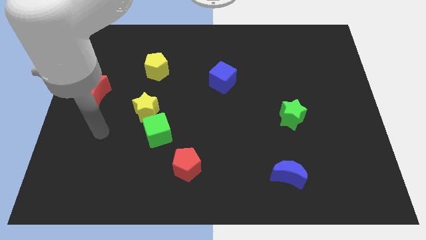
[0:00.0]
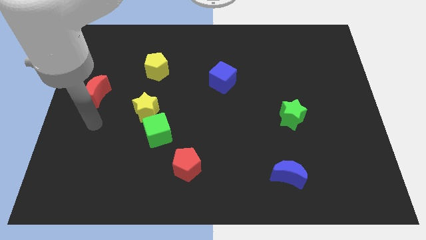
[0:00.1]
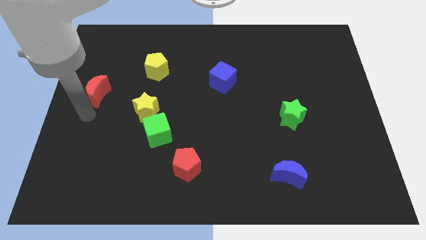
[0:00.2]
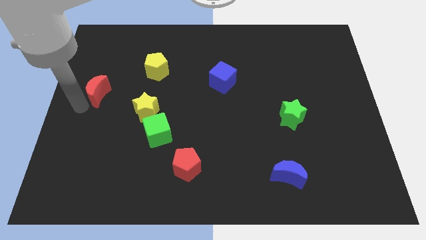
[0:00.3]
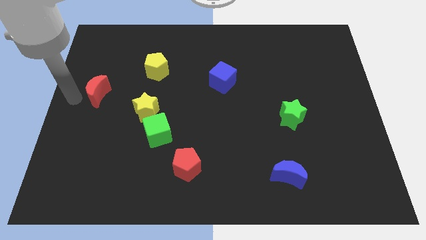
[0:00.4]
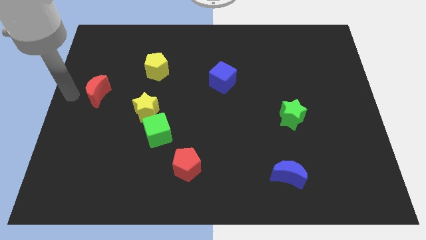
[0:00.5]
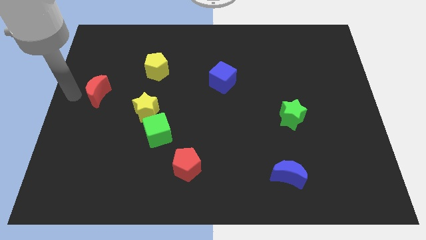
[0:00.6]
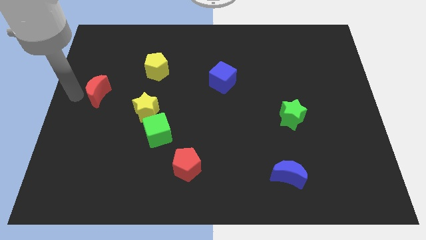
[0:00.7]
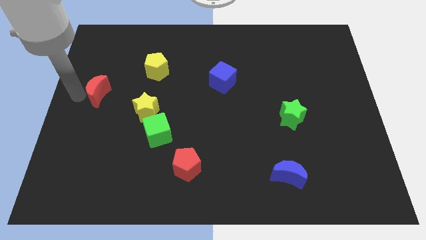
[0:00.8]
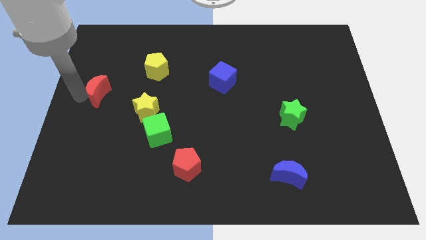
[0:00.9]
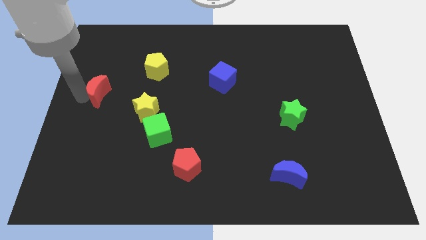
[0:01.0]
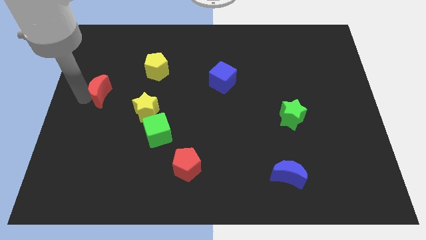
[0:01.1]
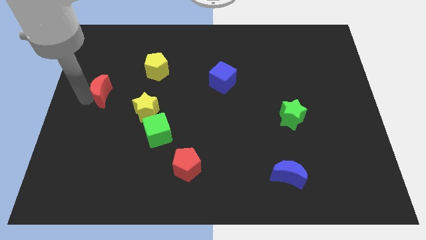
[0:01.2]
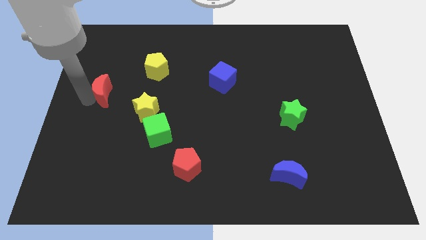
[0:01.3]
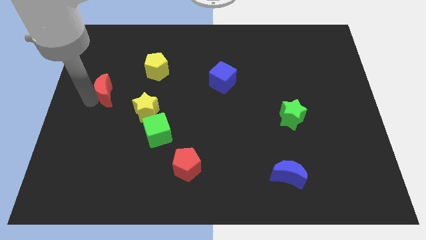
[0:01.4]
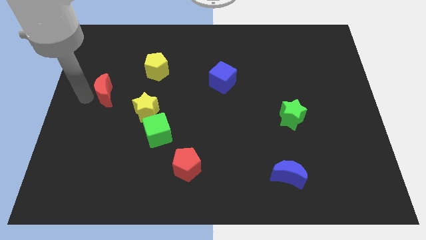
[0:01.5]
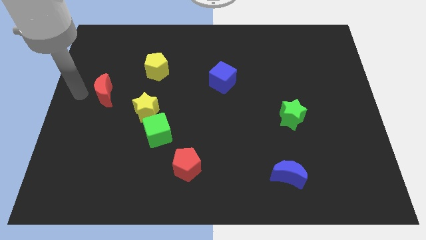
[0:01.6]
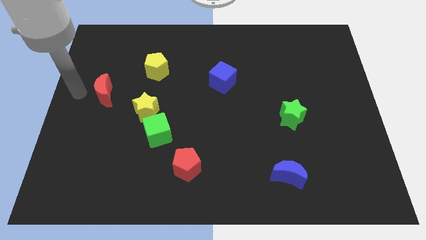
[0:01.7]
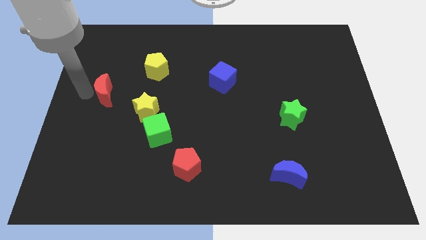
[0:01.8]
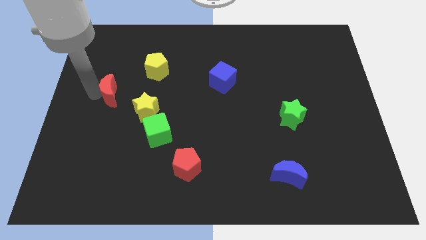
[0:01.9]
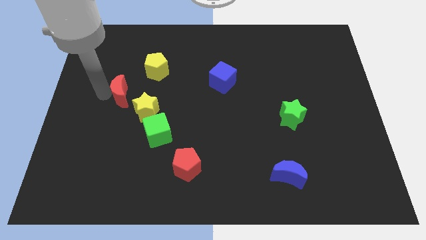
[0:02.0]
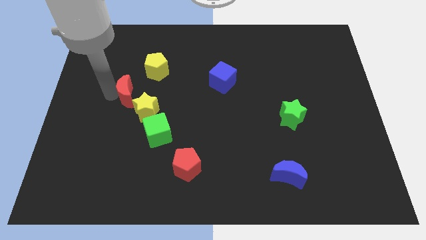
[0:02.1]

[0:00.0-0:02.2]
slightly move the red moon to the right

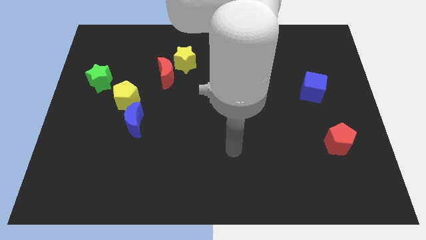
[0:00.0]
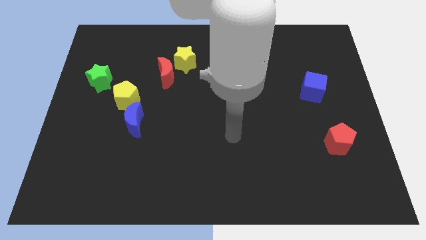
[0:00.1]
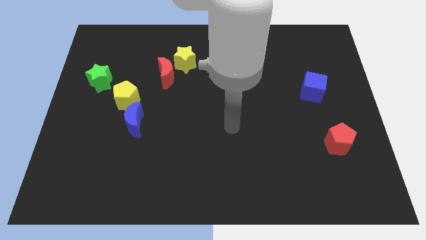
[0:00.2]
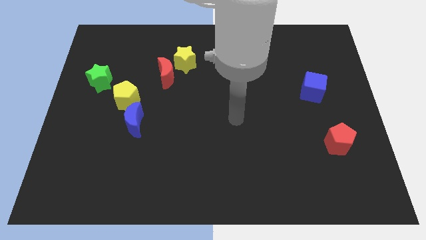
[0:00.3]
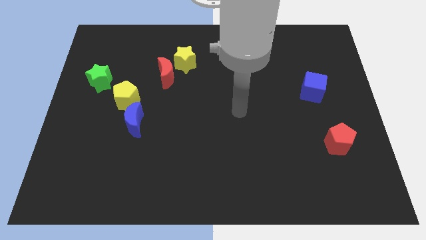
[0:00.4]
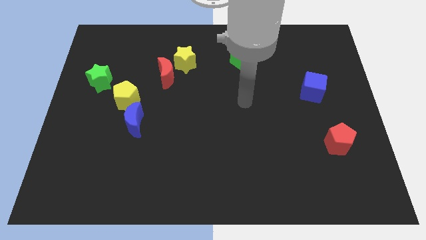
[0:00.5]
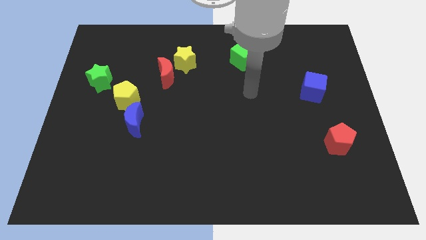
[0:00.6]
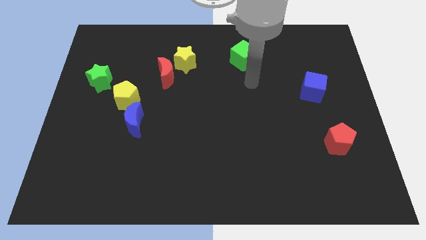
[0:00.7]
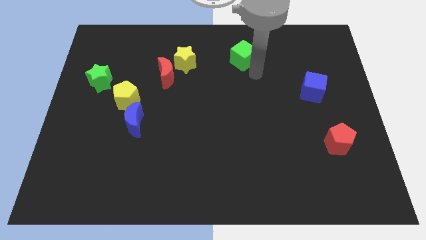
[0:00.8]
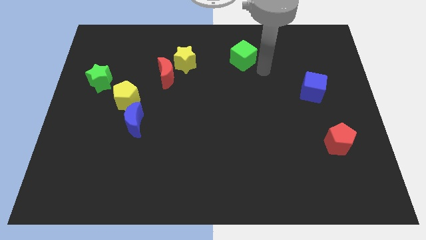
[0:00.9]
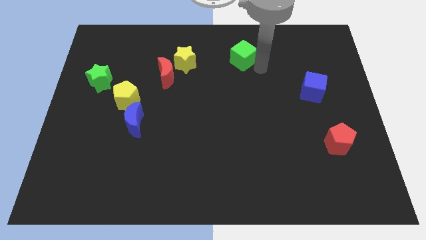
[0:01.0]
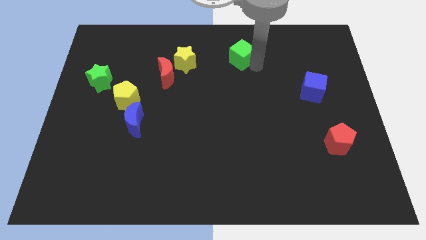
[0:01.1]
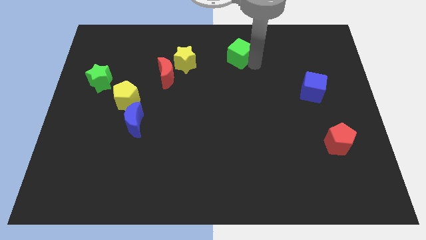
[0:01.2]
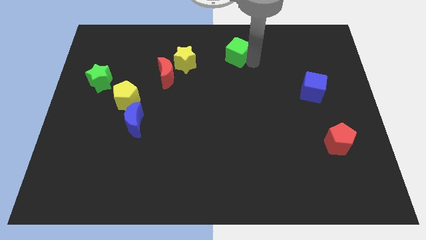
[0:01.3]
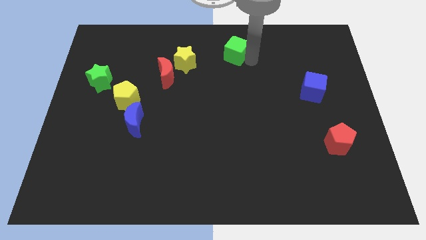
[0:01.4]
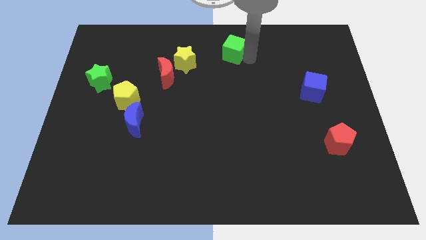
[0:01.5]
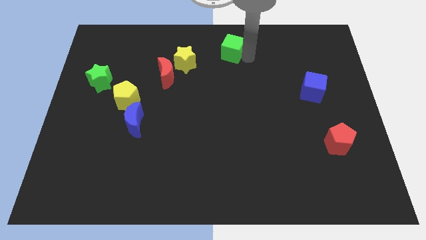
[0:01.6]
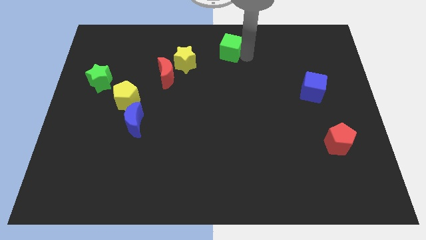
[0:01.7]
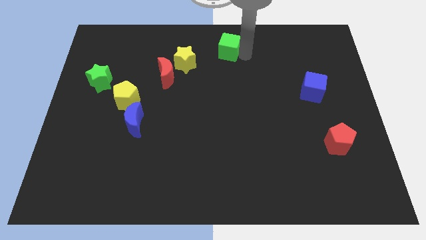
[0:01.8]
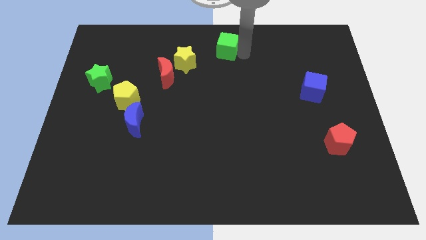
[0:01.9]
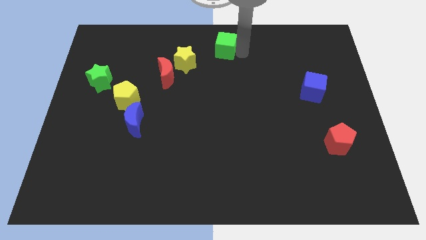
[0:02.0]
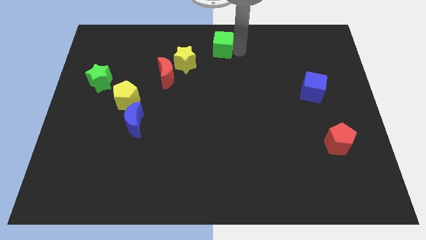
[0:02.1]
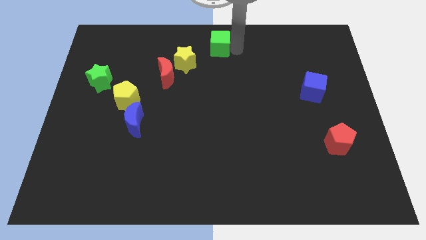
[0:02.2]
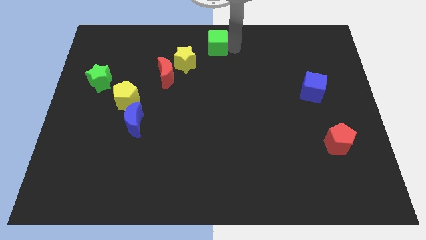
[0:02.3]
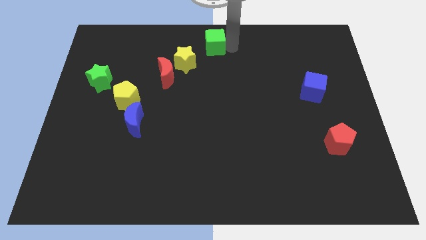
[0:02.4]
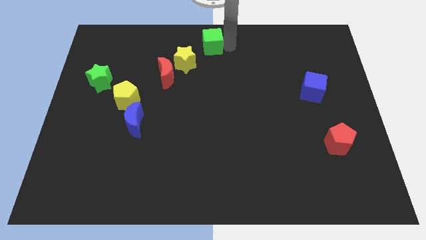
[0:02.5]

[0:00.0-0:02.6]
move the green cube a little left

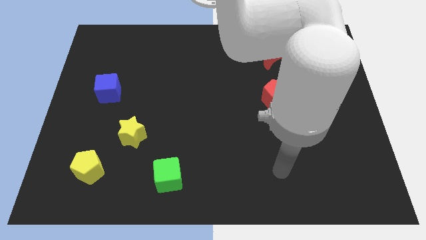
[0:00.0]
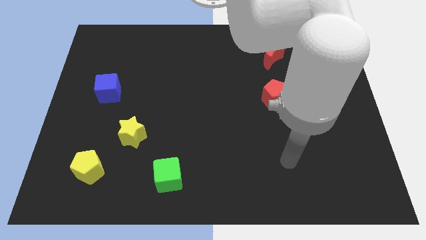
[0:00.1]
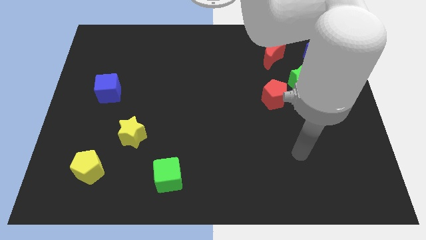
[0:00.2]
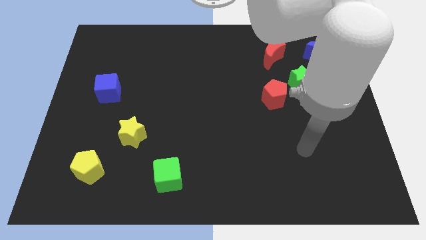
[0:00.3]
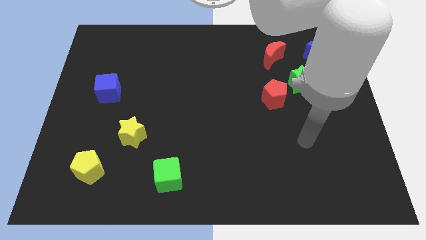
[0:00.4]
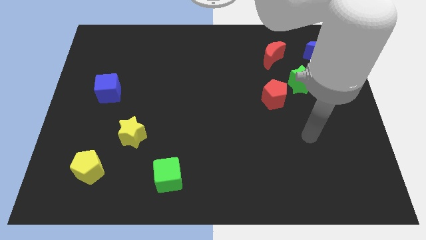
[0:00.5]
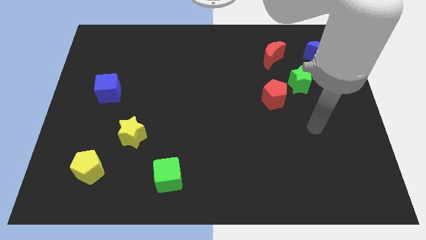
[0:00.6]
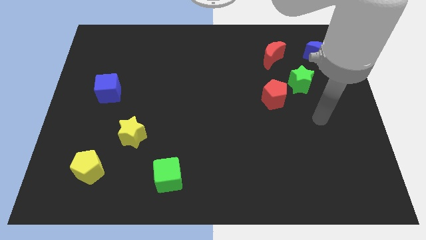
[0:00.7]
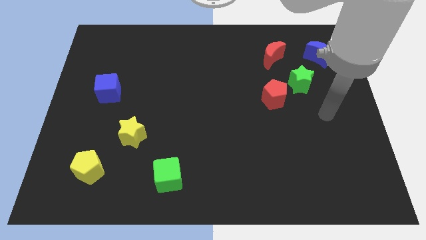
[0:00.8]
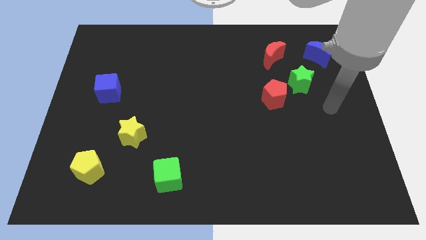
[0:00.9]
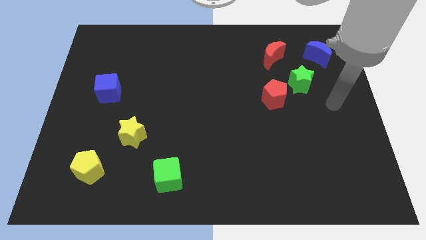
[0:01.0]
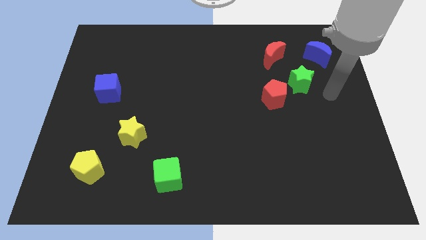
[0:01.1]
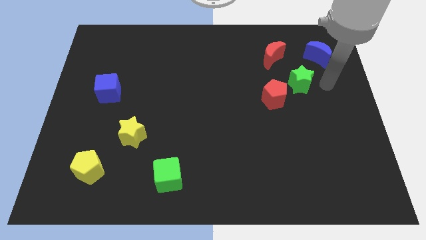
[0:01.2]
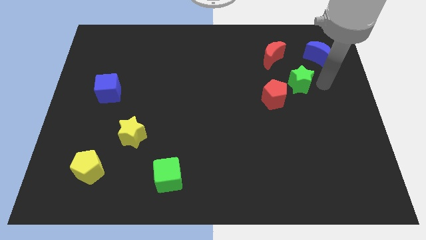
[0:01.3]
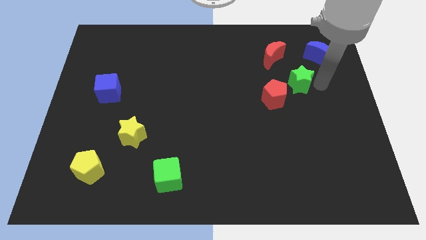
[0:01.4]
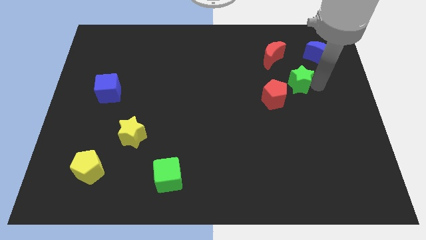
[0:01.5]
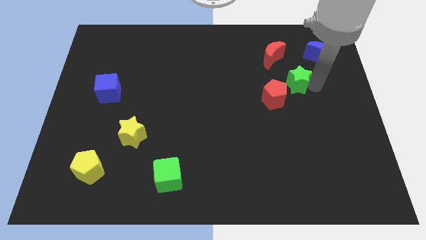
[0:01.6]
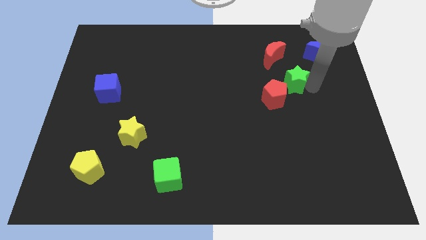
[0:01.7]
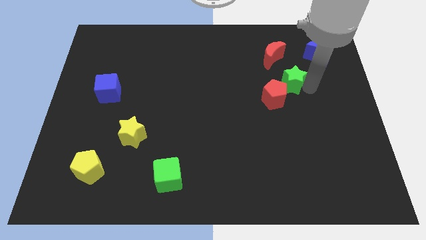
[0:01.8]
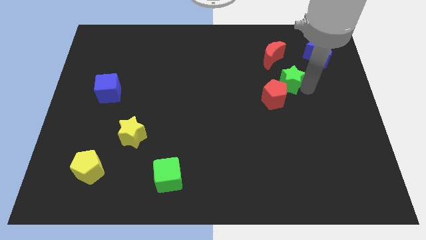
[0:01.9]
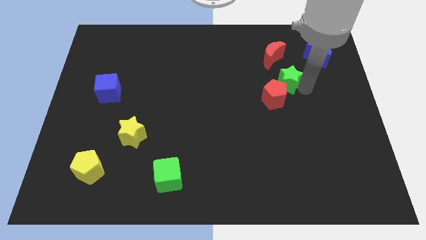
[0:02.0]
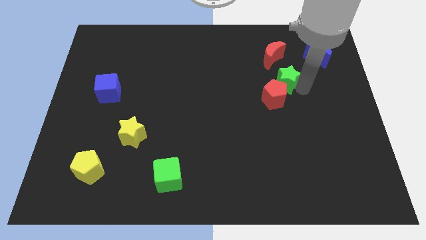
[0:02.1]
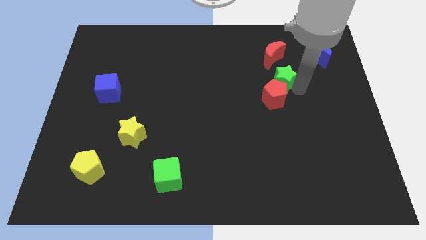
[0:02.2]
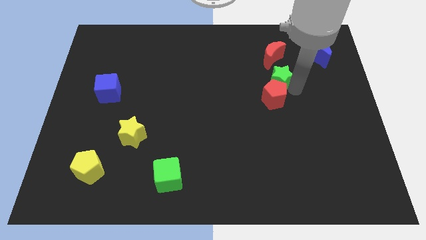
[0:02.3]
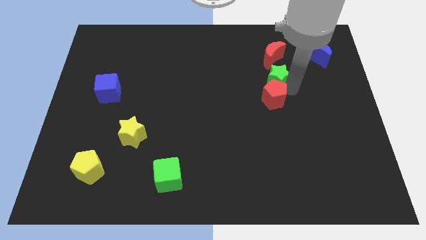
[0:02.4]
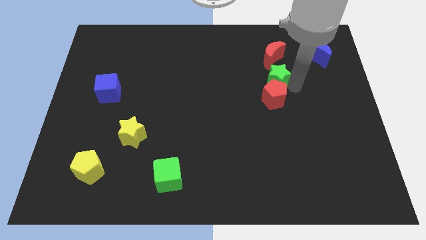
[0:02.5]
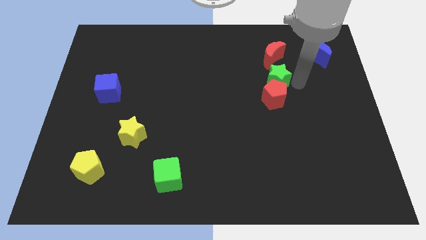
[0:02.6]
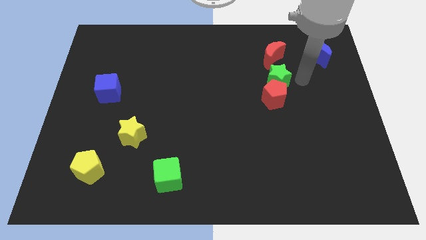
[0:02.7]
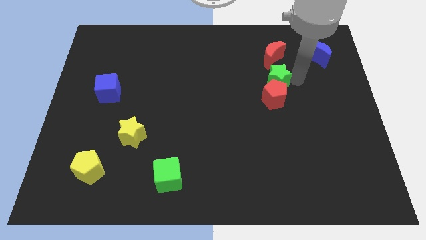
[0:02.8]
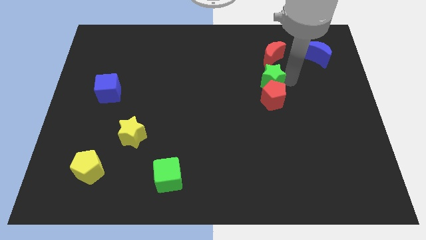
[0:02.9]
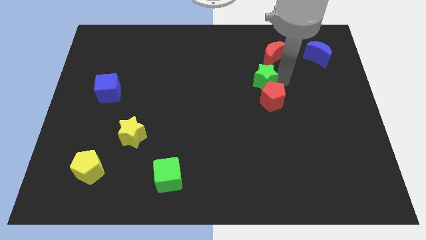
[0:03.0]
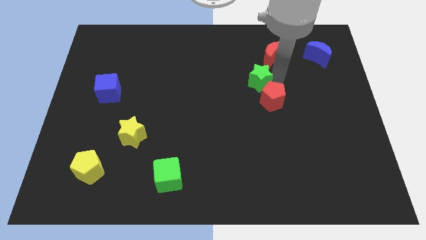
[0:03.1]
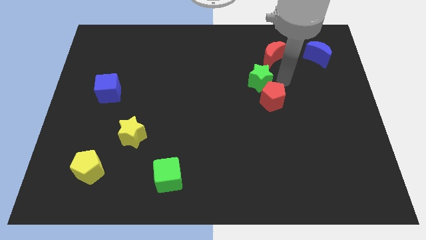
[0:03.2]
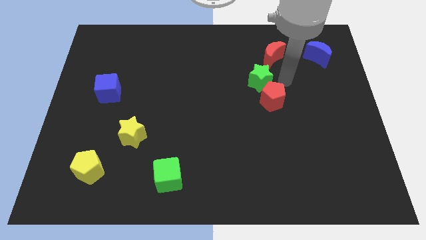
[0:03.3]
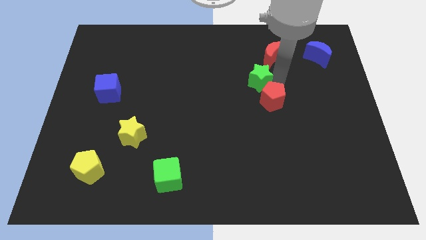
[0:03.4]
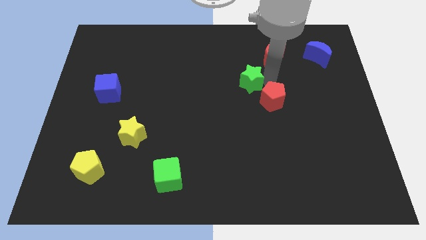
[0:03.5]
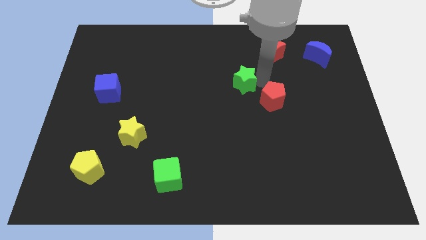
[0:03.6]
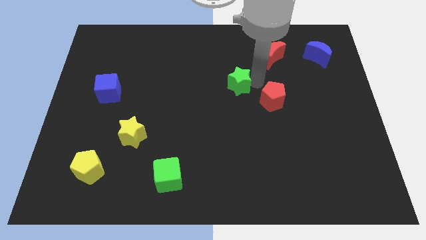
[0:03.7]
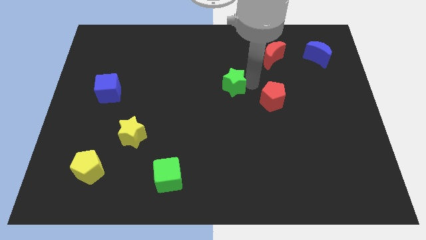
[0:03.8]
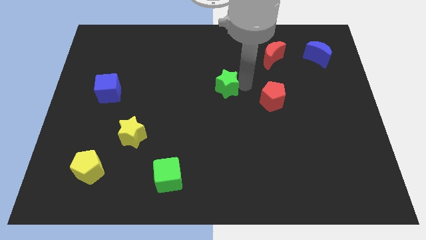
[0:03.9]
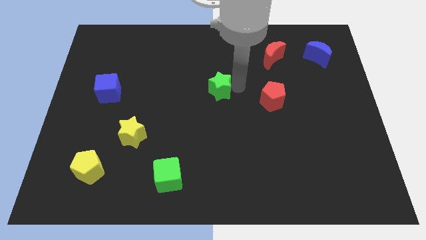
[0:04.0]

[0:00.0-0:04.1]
push the green star to the left
